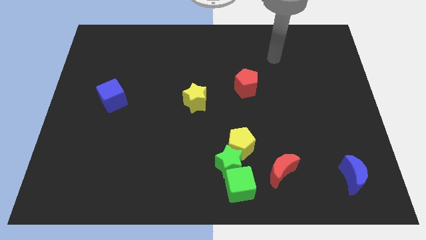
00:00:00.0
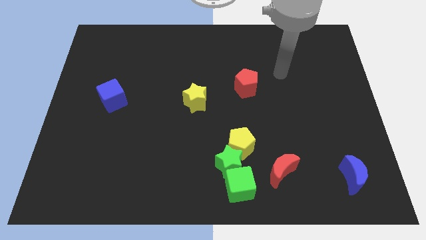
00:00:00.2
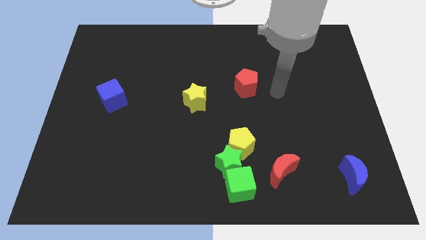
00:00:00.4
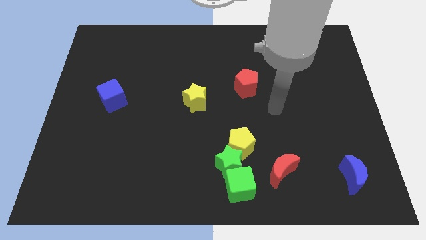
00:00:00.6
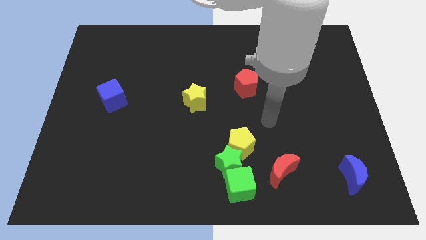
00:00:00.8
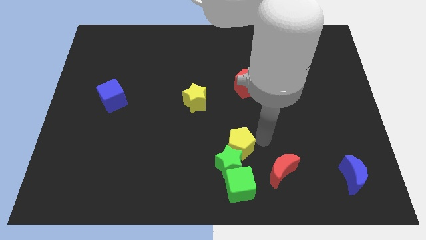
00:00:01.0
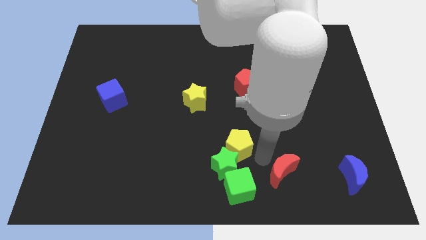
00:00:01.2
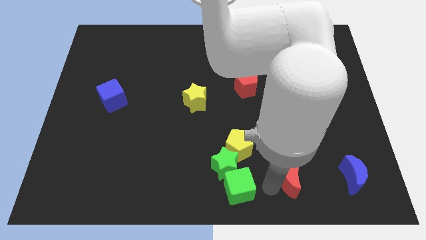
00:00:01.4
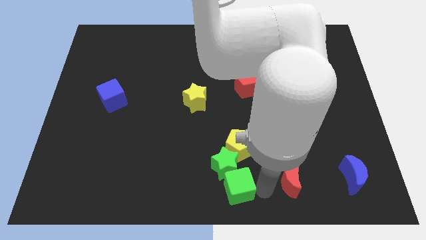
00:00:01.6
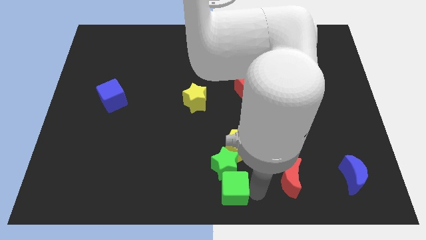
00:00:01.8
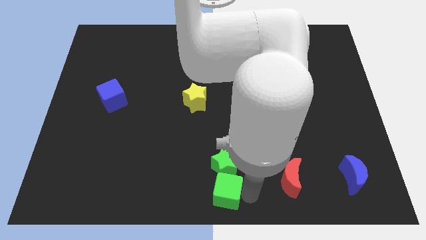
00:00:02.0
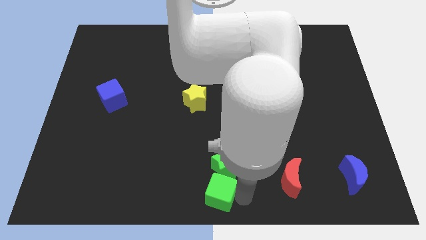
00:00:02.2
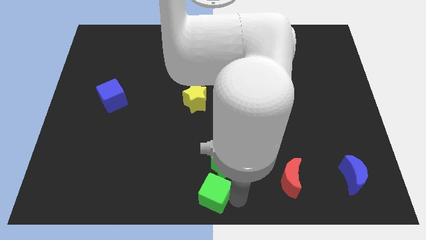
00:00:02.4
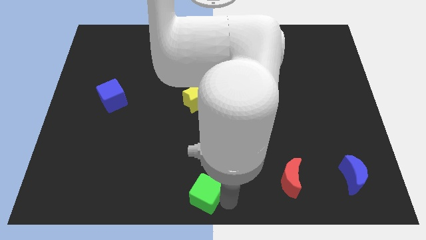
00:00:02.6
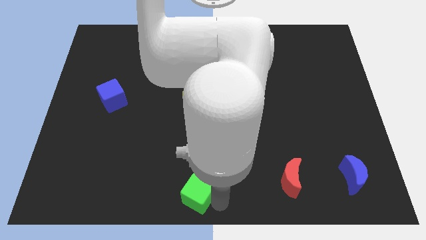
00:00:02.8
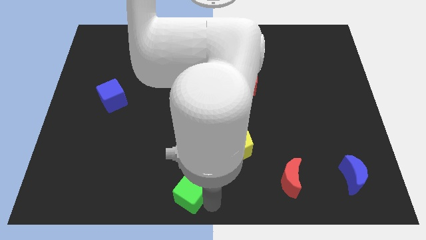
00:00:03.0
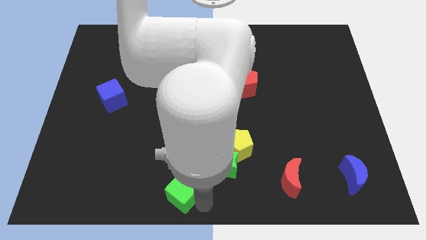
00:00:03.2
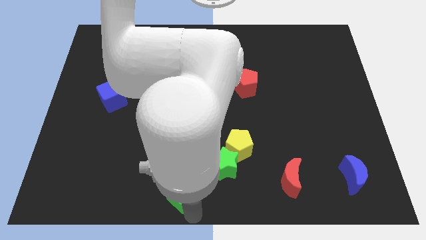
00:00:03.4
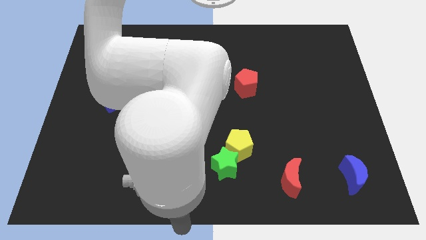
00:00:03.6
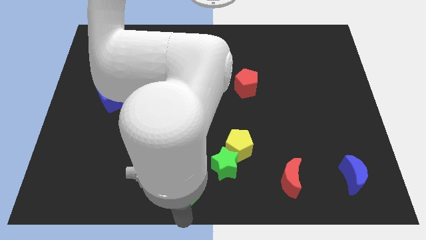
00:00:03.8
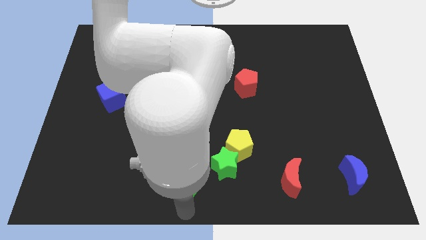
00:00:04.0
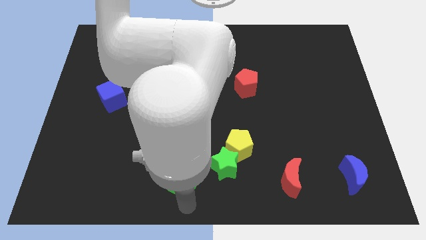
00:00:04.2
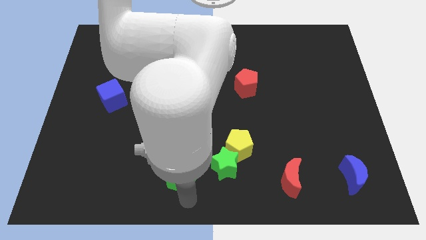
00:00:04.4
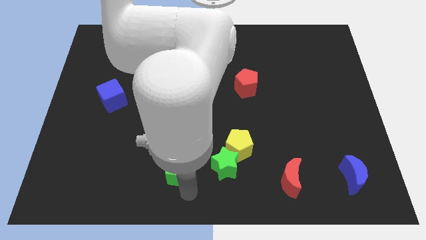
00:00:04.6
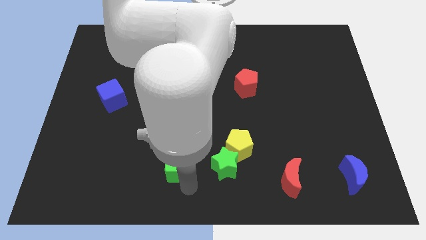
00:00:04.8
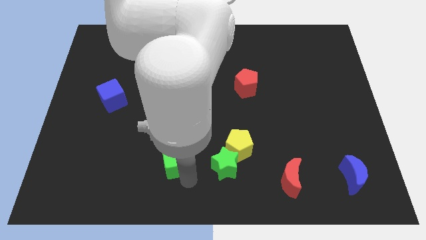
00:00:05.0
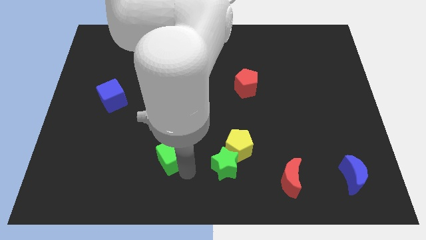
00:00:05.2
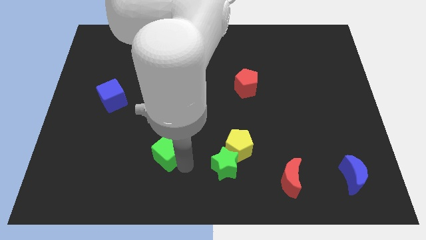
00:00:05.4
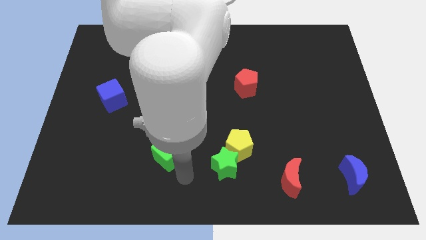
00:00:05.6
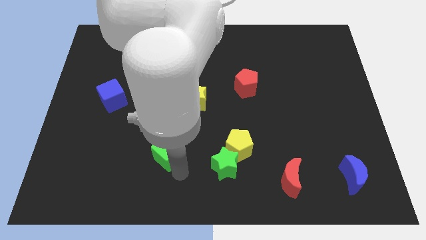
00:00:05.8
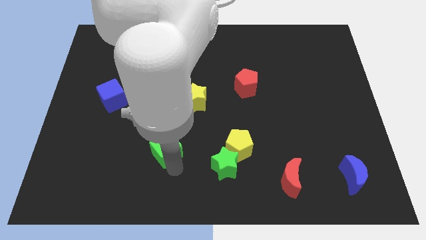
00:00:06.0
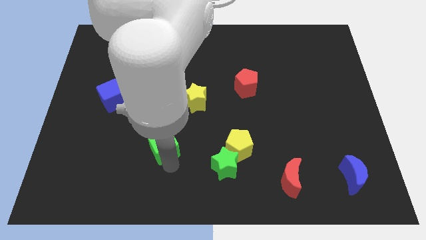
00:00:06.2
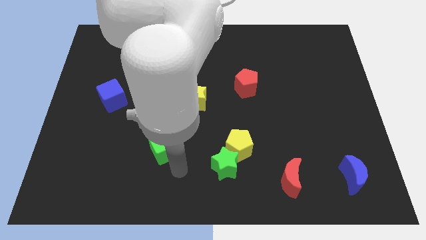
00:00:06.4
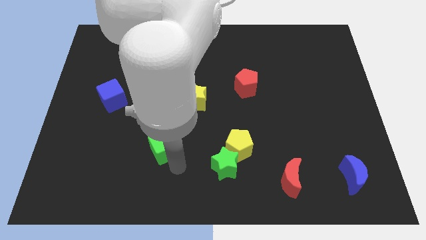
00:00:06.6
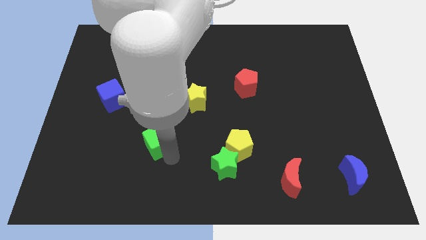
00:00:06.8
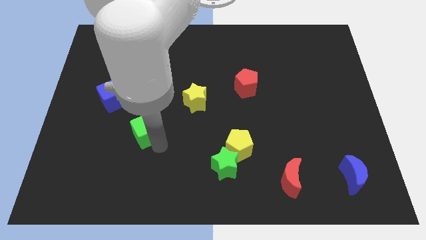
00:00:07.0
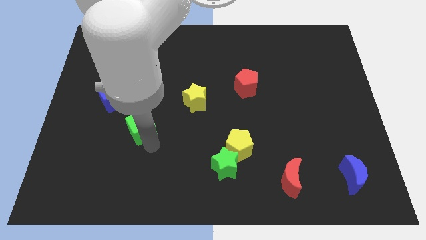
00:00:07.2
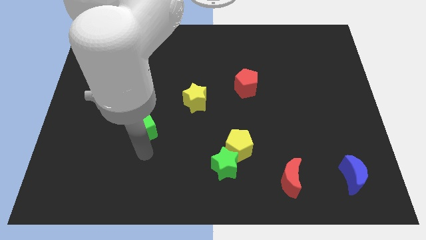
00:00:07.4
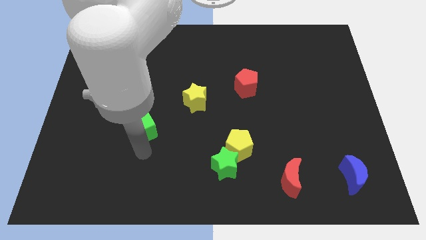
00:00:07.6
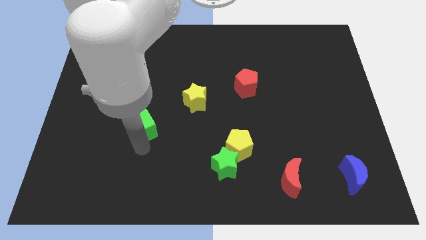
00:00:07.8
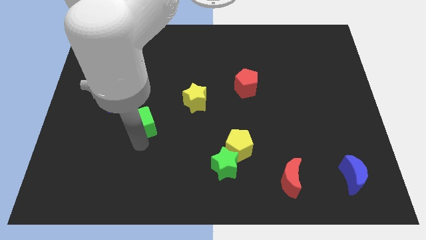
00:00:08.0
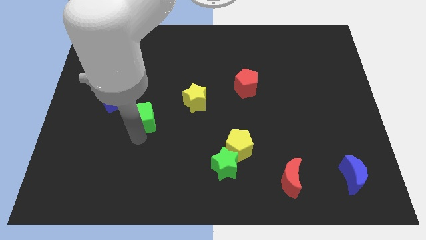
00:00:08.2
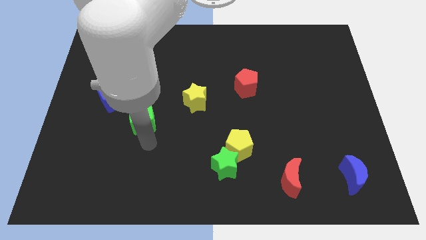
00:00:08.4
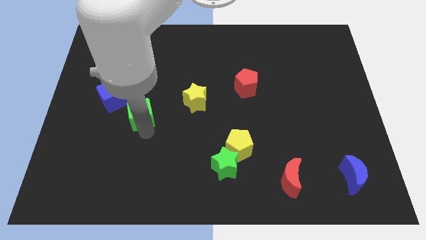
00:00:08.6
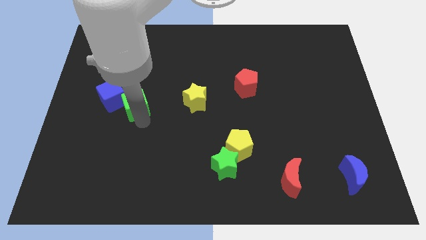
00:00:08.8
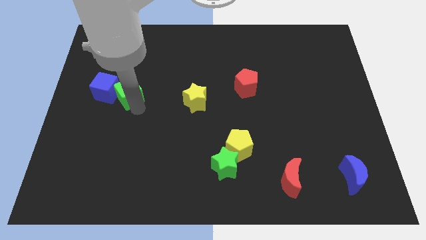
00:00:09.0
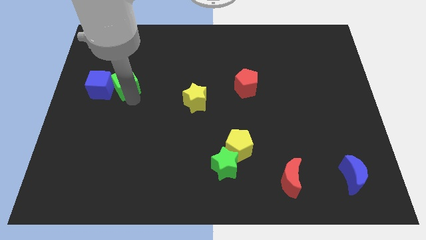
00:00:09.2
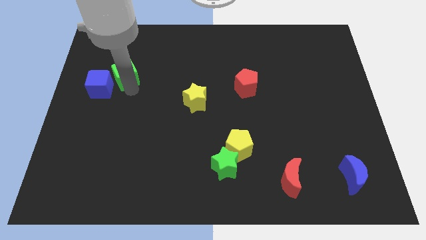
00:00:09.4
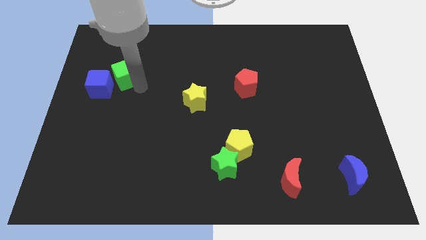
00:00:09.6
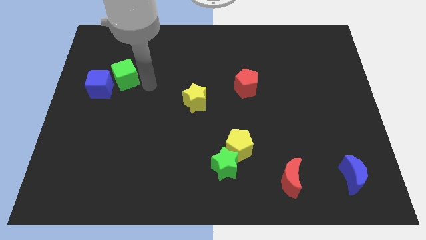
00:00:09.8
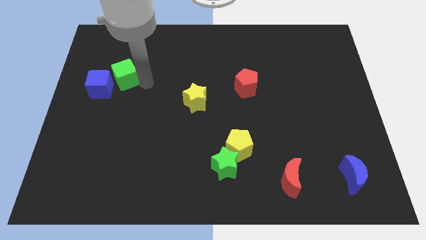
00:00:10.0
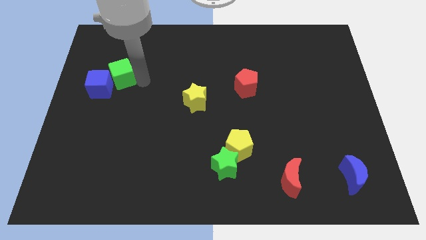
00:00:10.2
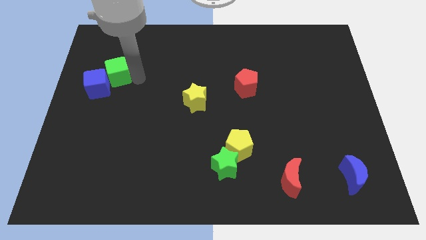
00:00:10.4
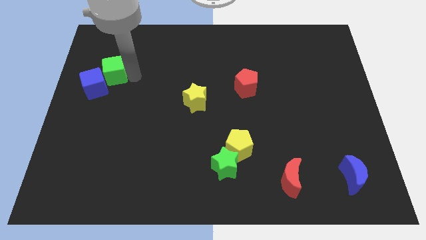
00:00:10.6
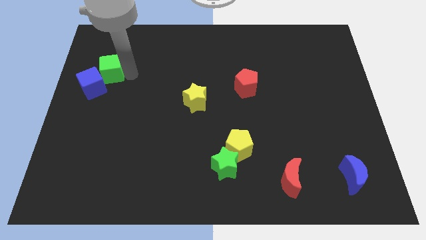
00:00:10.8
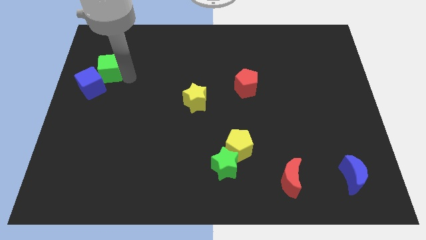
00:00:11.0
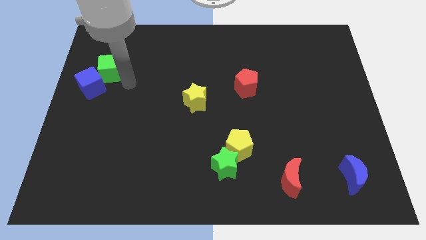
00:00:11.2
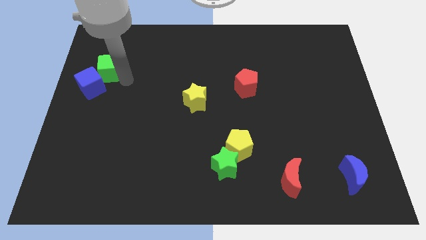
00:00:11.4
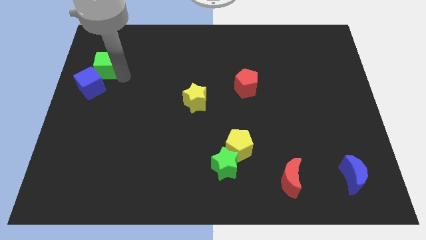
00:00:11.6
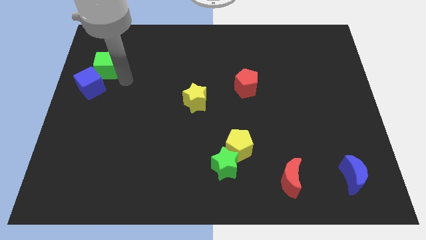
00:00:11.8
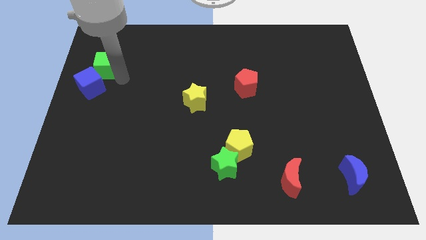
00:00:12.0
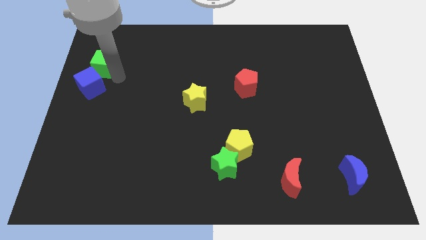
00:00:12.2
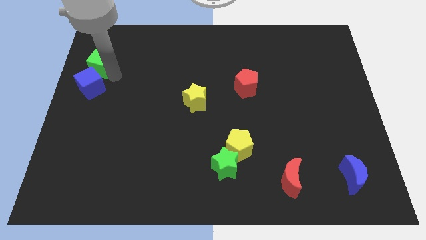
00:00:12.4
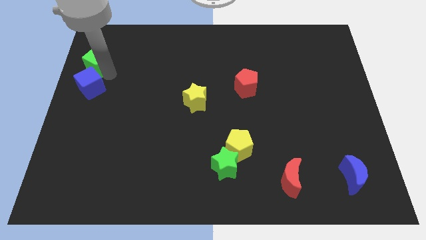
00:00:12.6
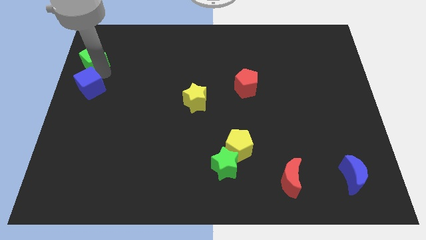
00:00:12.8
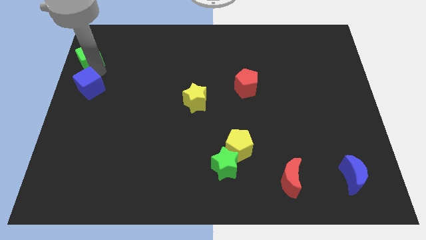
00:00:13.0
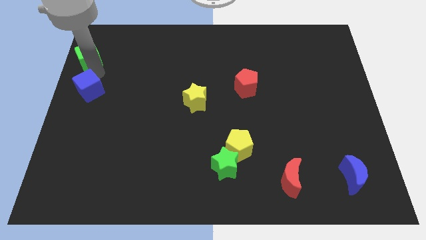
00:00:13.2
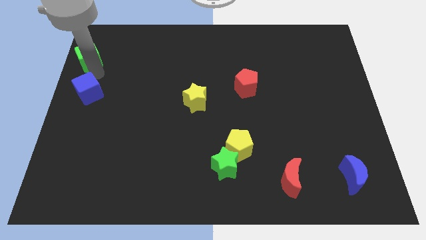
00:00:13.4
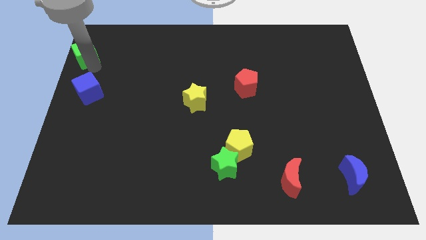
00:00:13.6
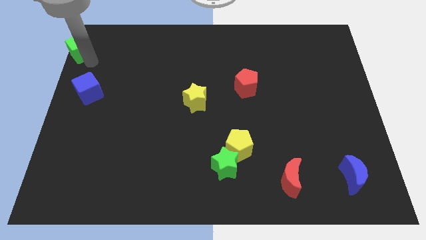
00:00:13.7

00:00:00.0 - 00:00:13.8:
slide the green cube to the top left
